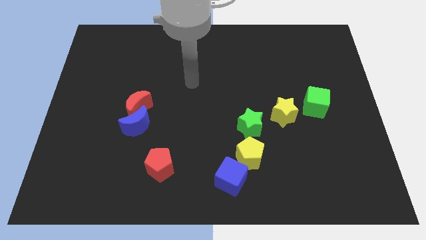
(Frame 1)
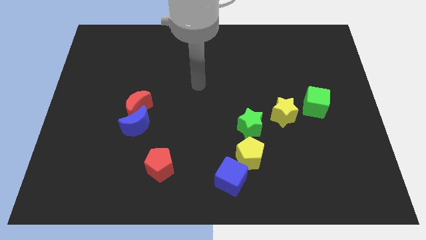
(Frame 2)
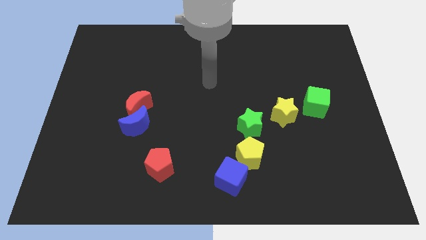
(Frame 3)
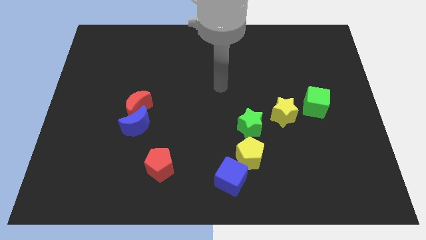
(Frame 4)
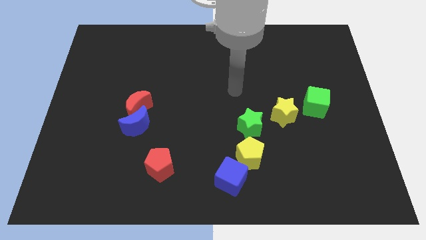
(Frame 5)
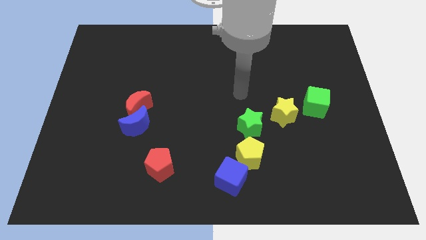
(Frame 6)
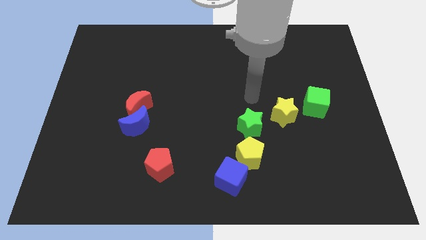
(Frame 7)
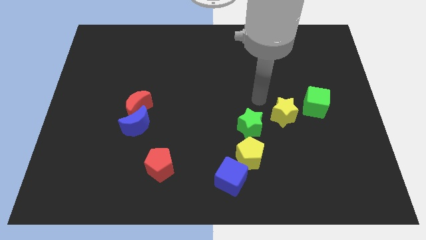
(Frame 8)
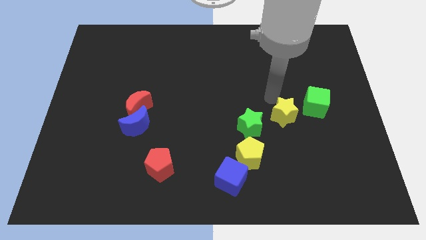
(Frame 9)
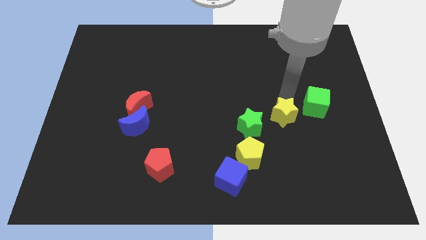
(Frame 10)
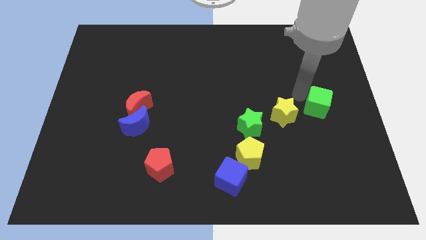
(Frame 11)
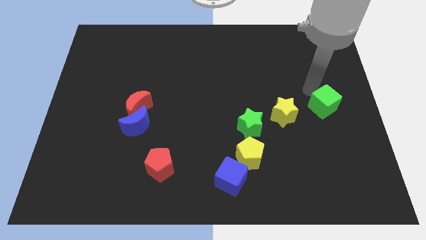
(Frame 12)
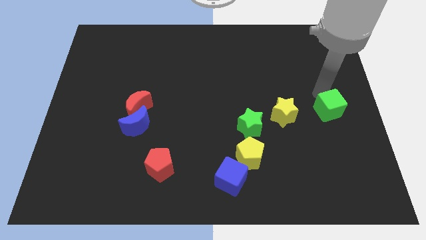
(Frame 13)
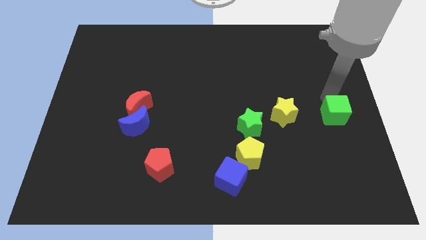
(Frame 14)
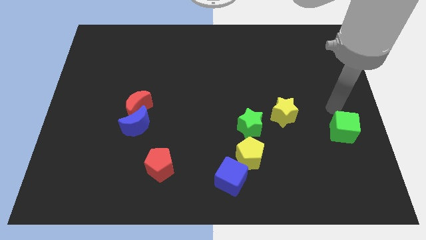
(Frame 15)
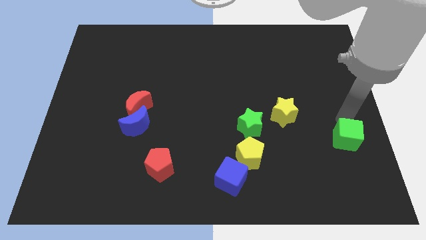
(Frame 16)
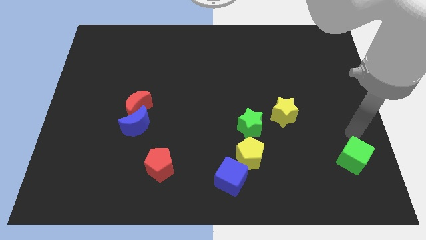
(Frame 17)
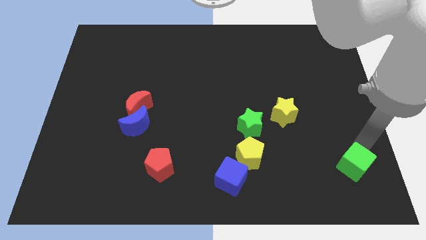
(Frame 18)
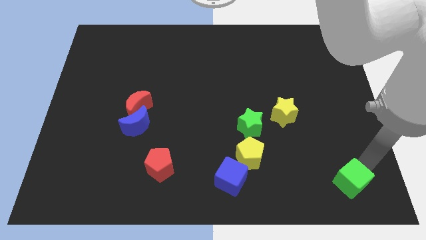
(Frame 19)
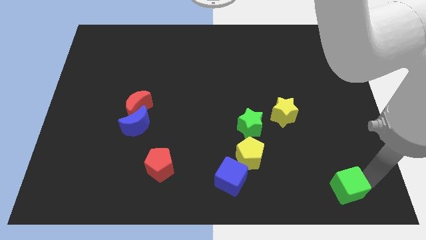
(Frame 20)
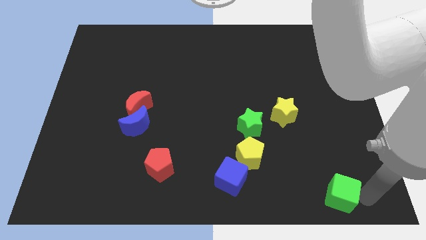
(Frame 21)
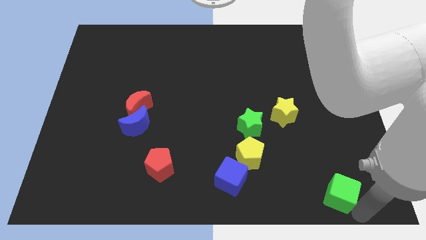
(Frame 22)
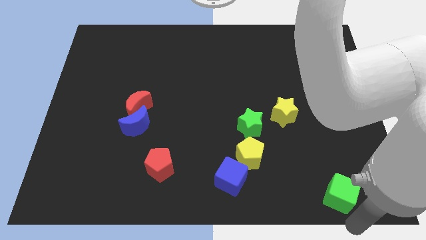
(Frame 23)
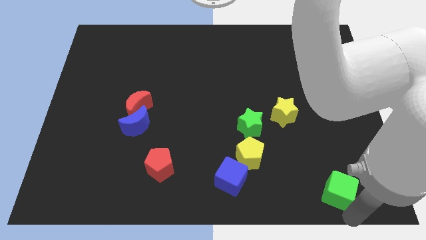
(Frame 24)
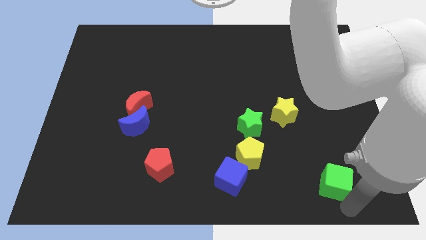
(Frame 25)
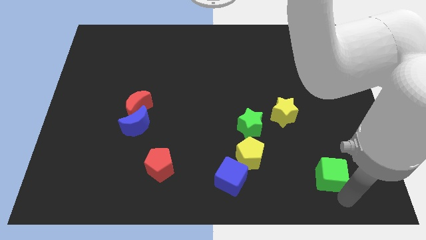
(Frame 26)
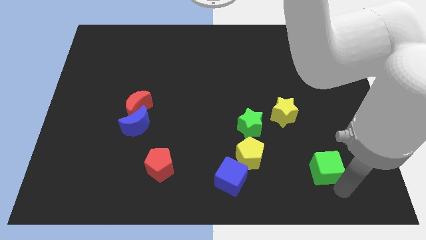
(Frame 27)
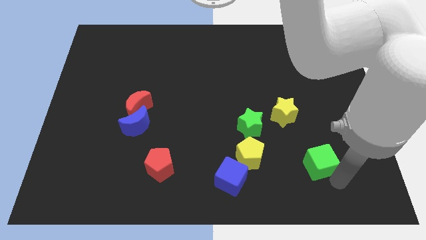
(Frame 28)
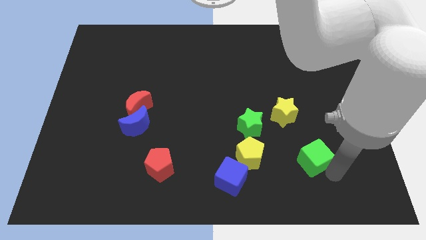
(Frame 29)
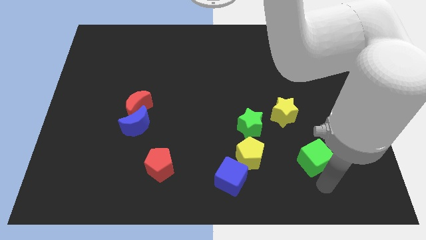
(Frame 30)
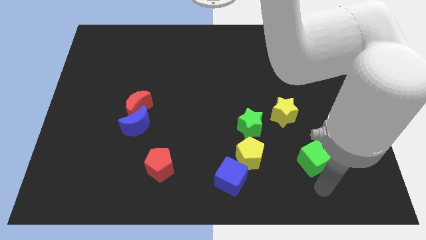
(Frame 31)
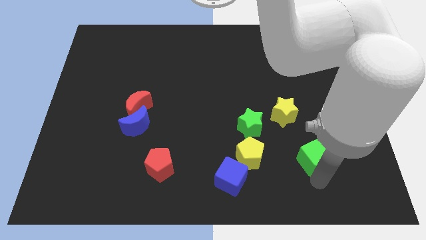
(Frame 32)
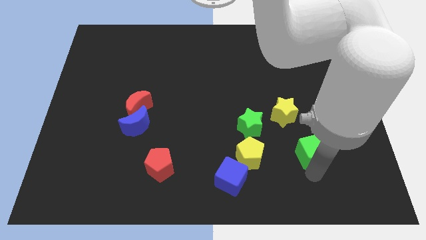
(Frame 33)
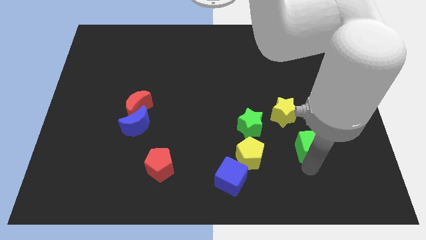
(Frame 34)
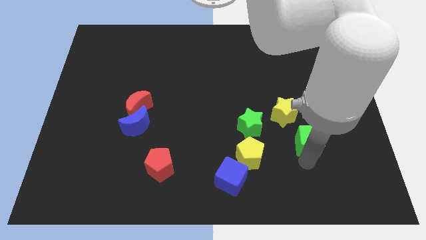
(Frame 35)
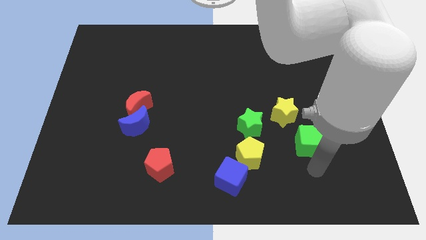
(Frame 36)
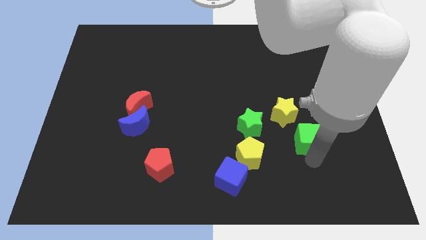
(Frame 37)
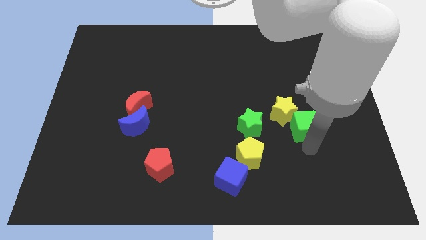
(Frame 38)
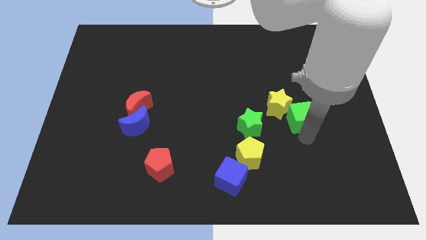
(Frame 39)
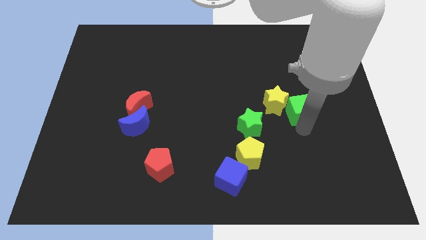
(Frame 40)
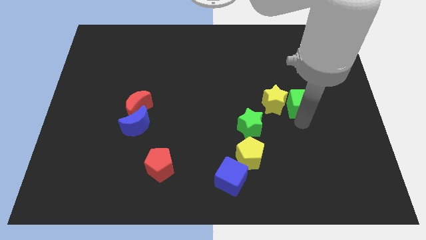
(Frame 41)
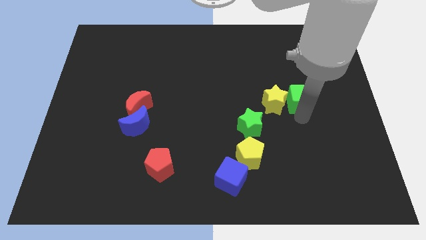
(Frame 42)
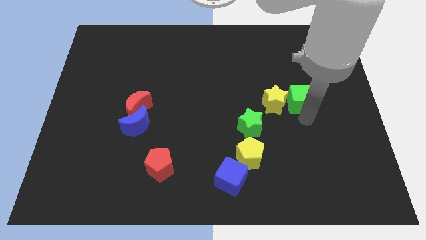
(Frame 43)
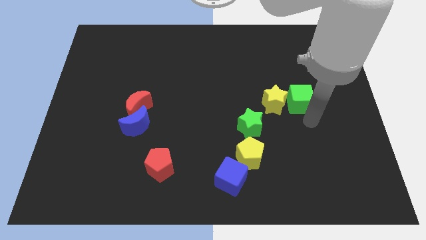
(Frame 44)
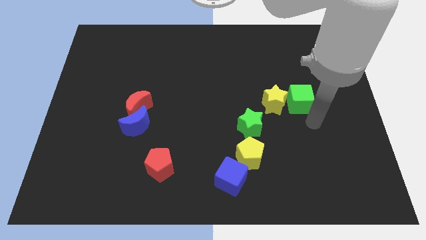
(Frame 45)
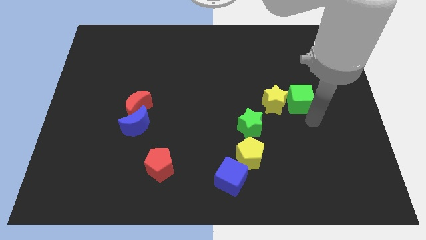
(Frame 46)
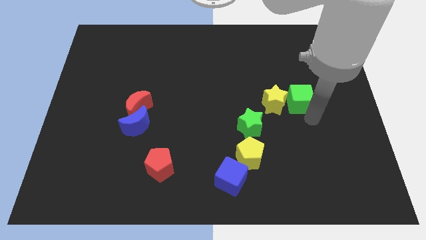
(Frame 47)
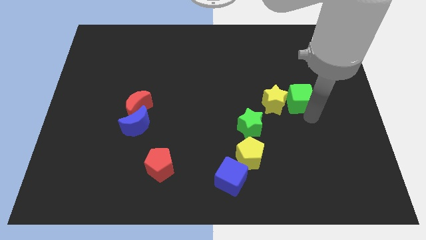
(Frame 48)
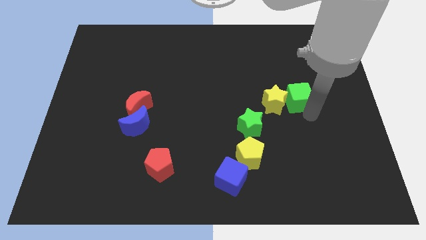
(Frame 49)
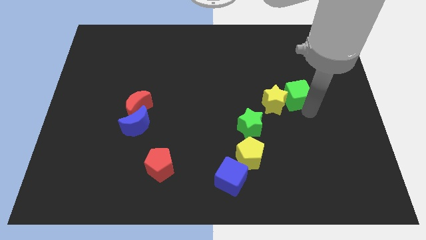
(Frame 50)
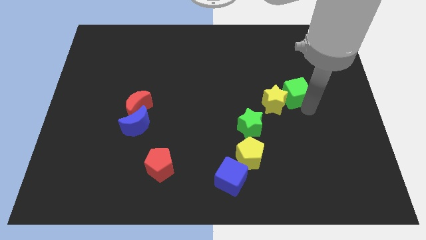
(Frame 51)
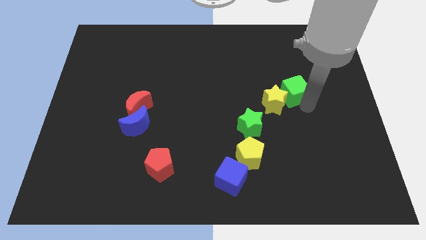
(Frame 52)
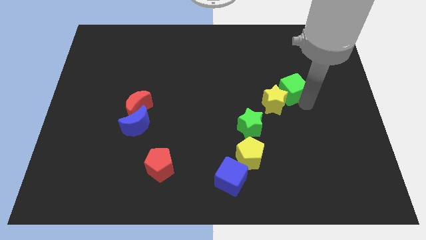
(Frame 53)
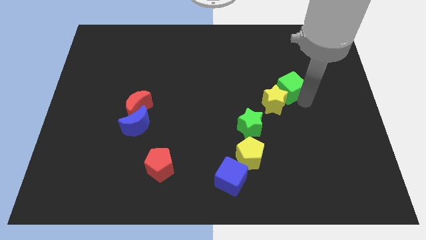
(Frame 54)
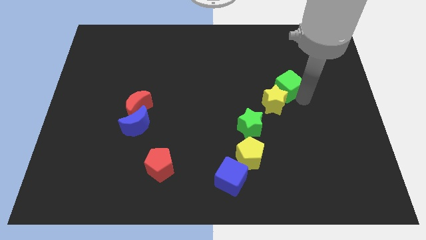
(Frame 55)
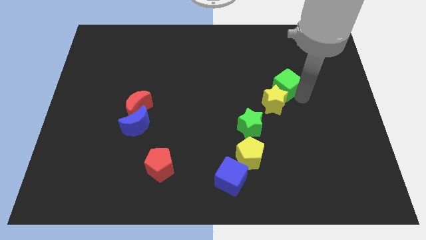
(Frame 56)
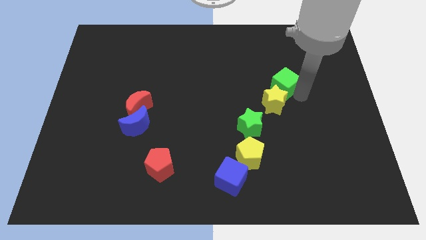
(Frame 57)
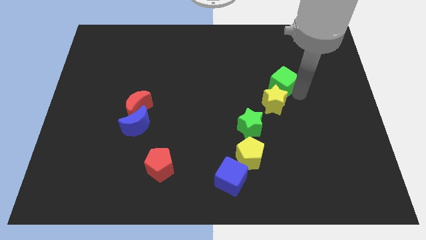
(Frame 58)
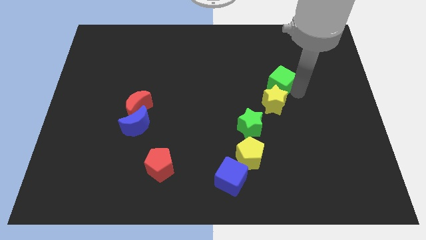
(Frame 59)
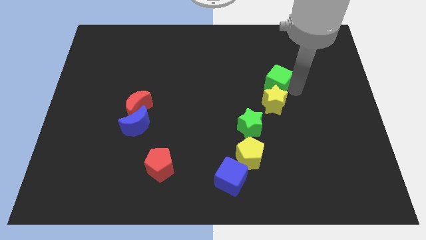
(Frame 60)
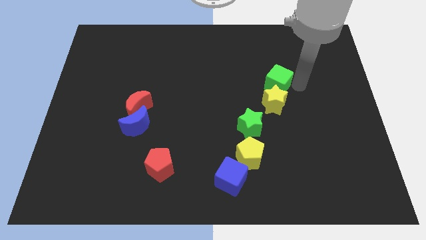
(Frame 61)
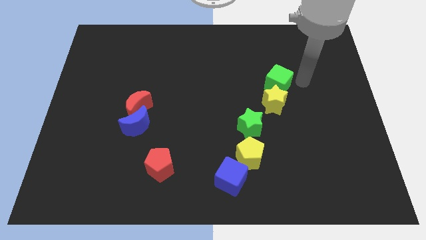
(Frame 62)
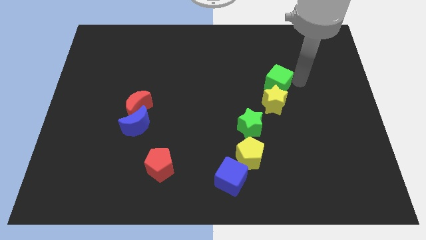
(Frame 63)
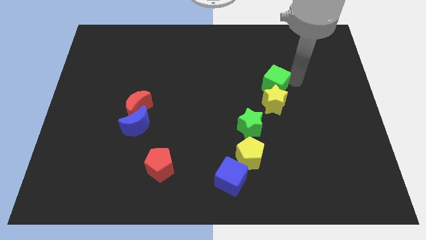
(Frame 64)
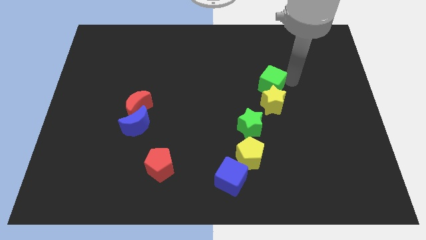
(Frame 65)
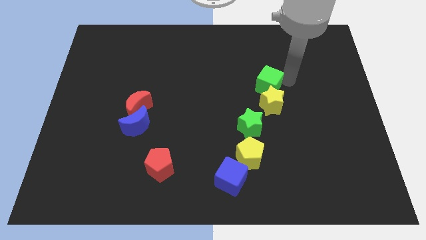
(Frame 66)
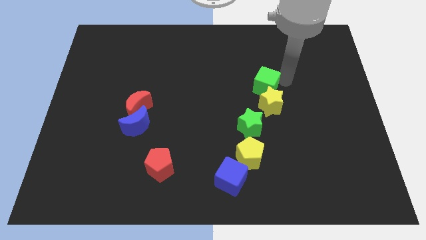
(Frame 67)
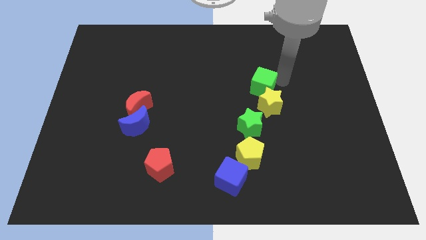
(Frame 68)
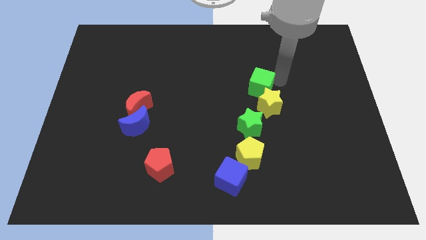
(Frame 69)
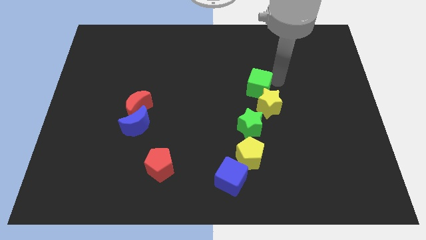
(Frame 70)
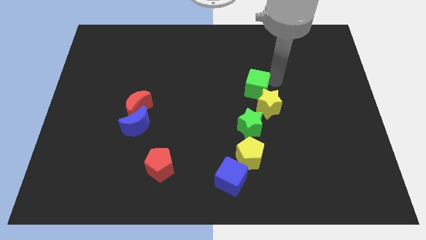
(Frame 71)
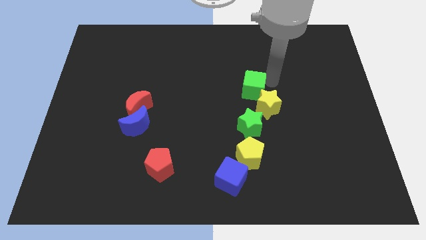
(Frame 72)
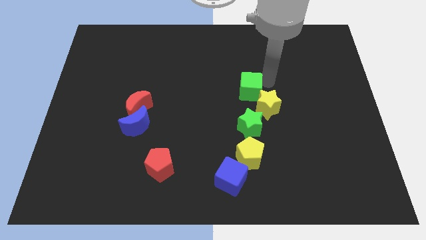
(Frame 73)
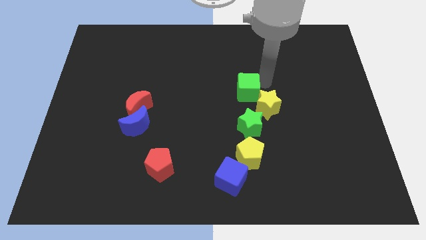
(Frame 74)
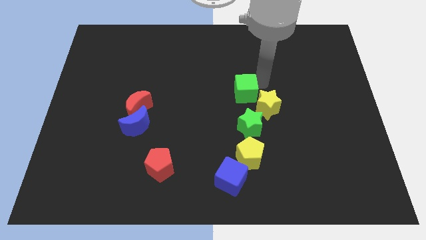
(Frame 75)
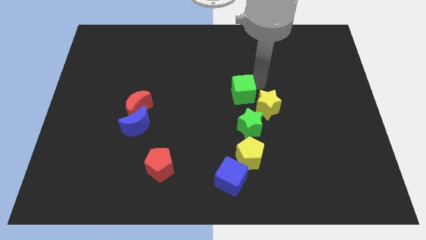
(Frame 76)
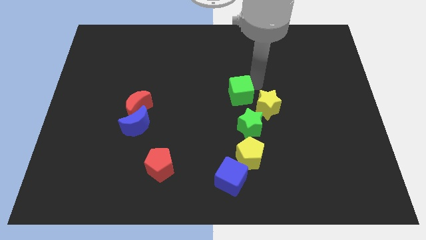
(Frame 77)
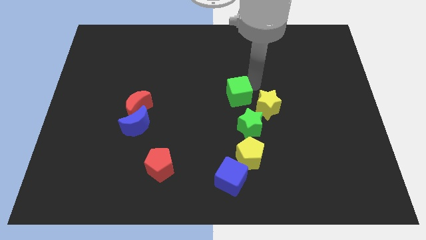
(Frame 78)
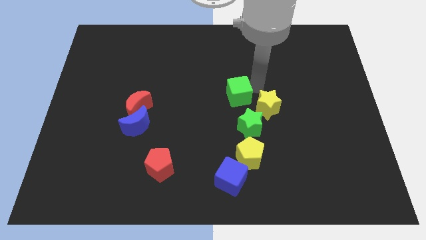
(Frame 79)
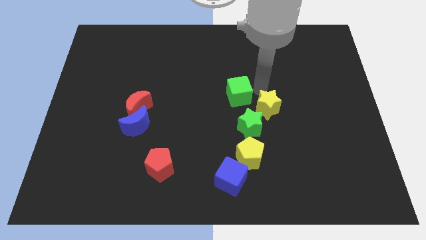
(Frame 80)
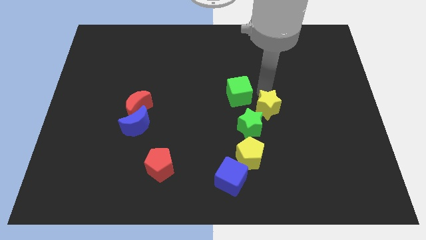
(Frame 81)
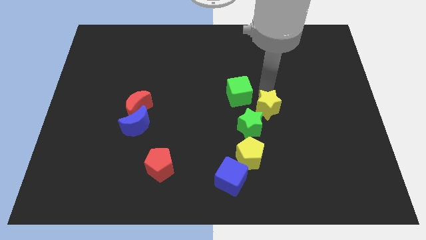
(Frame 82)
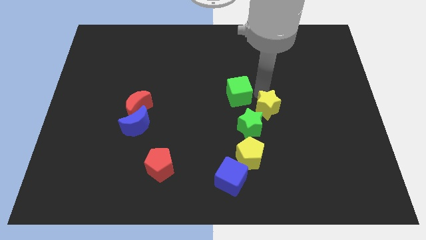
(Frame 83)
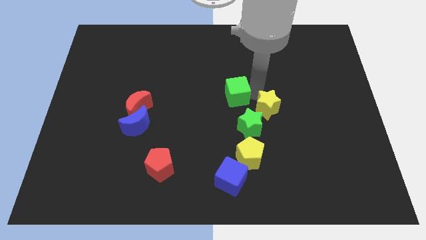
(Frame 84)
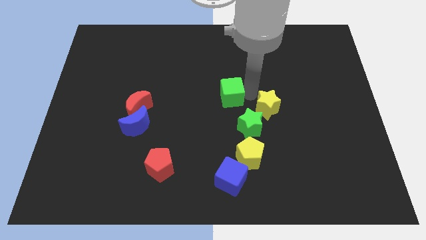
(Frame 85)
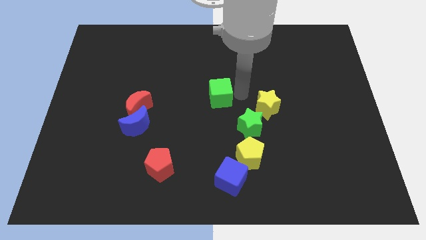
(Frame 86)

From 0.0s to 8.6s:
slide the green cube to the left
